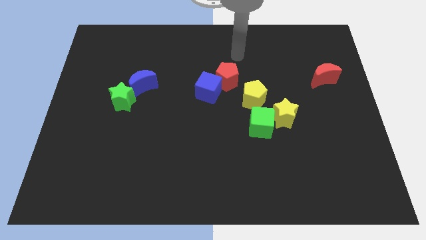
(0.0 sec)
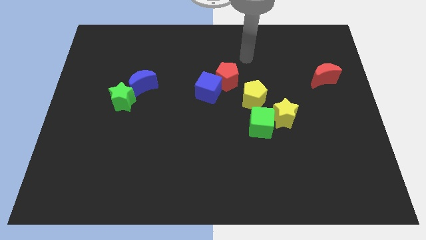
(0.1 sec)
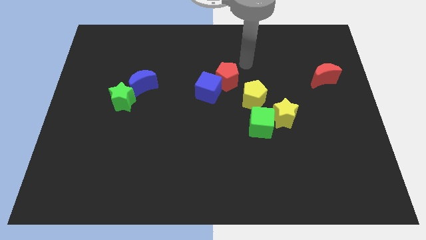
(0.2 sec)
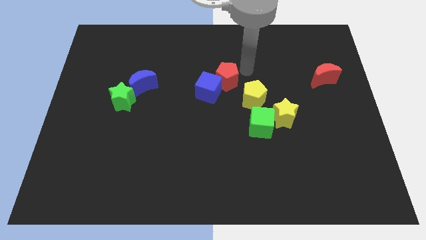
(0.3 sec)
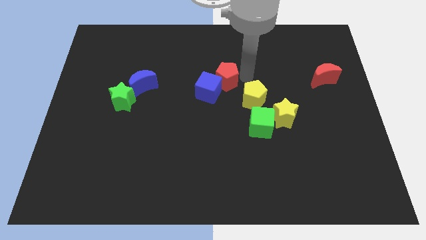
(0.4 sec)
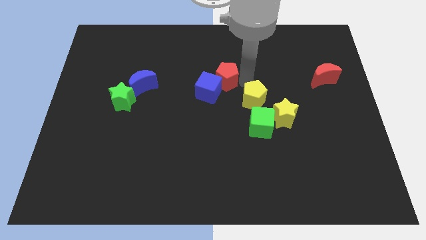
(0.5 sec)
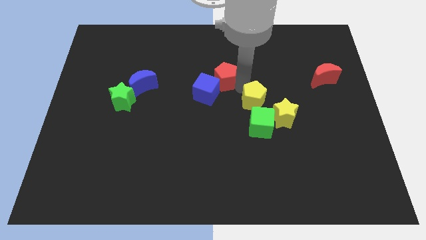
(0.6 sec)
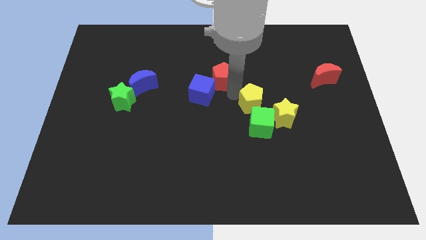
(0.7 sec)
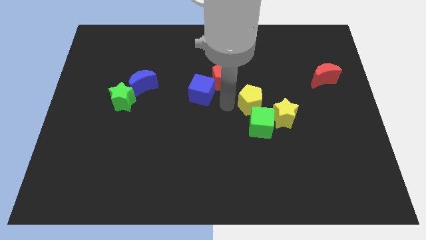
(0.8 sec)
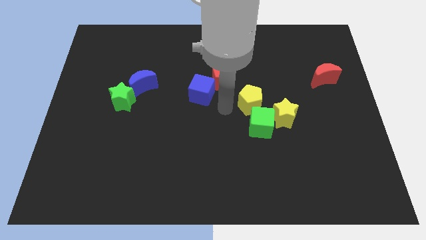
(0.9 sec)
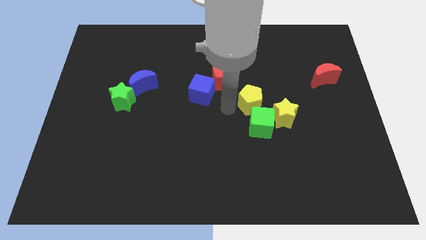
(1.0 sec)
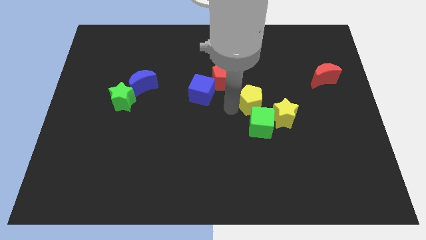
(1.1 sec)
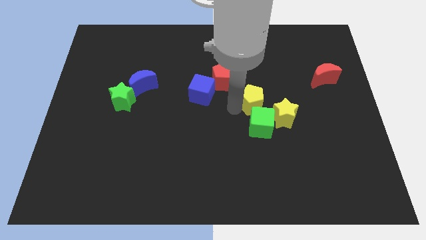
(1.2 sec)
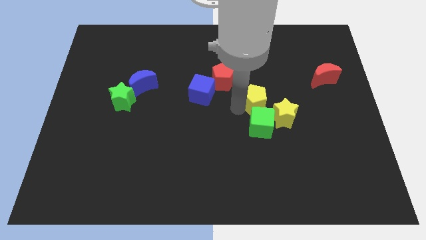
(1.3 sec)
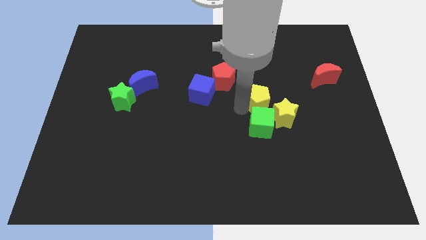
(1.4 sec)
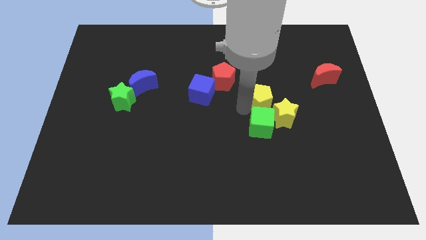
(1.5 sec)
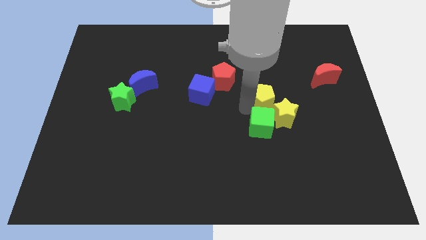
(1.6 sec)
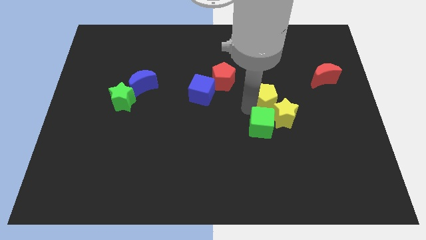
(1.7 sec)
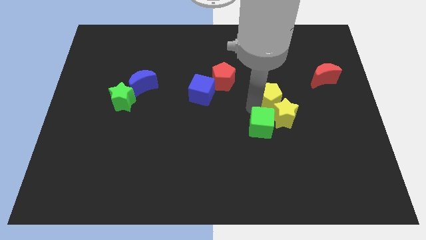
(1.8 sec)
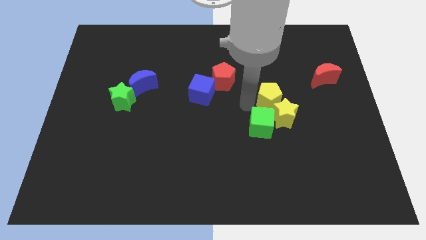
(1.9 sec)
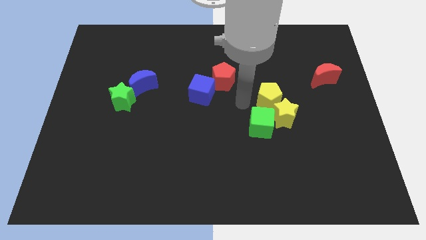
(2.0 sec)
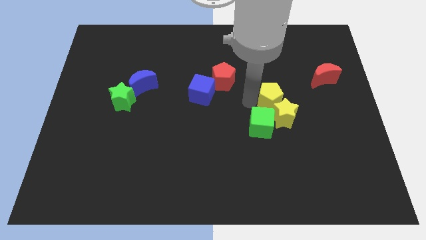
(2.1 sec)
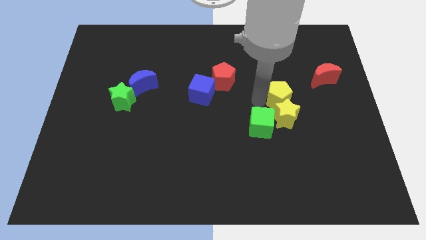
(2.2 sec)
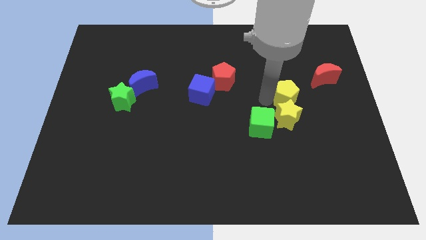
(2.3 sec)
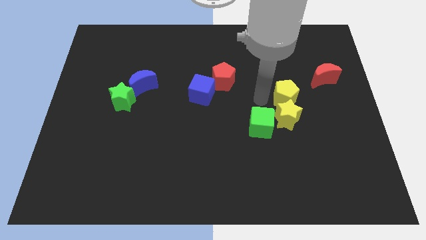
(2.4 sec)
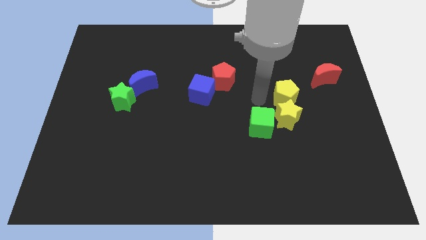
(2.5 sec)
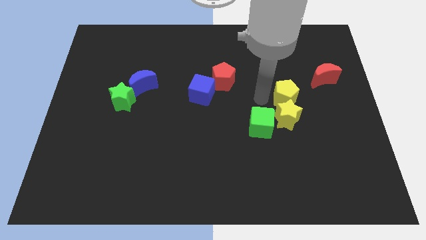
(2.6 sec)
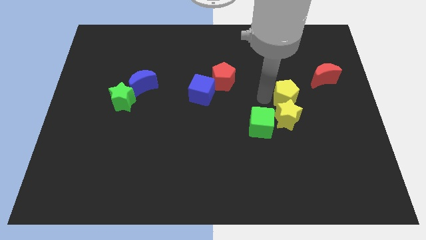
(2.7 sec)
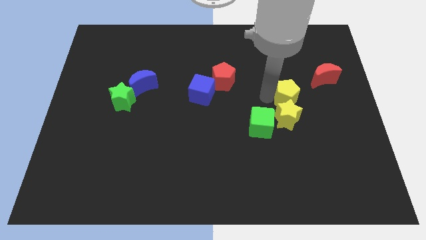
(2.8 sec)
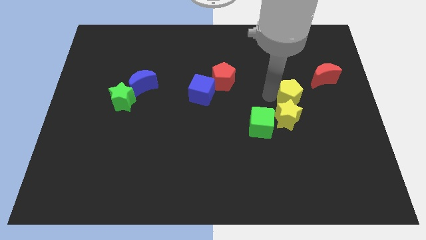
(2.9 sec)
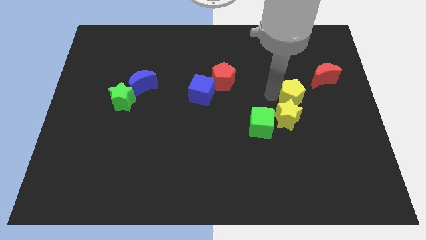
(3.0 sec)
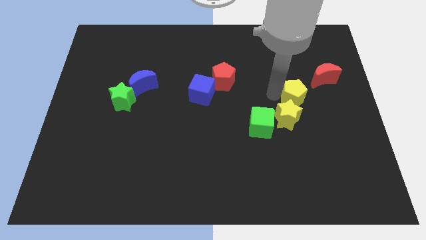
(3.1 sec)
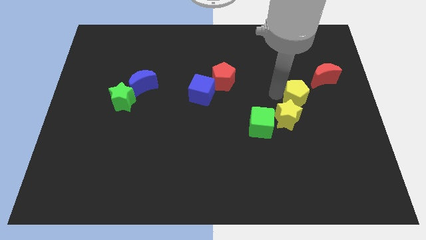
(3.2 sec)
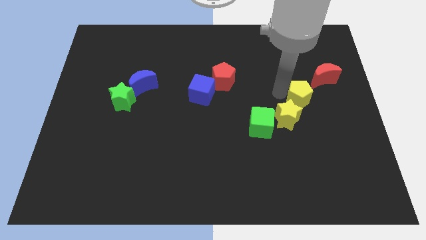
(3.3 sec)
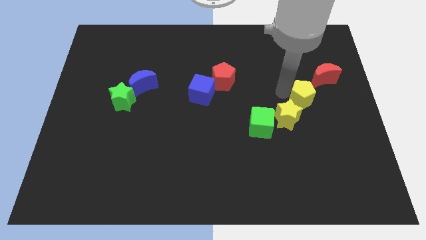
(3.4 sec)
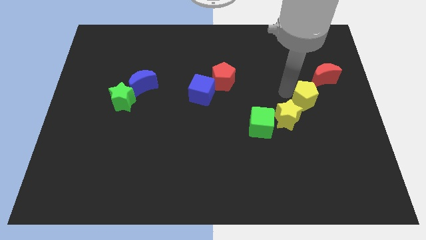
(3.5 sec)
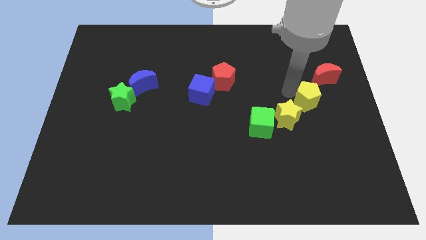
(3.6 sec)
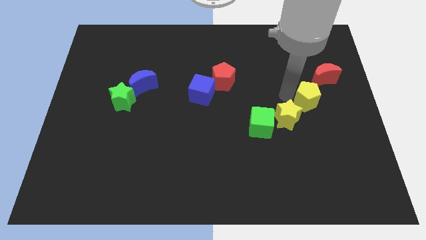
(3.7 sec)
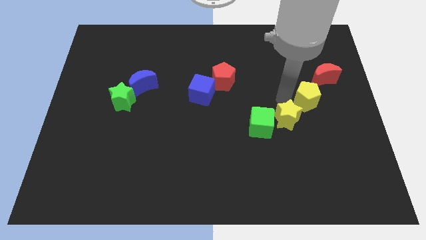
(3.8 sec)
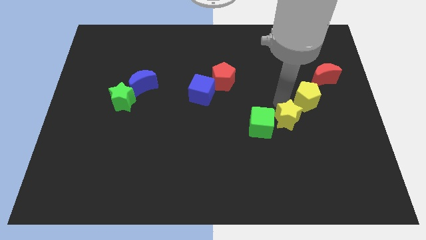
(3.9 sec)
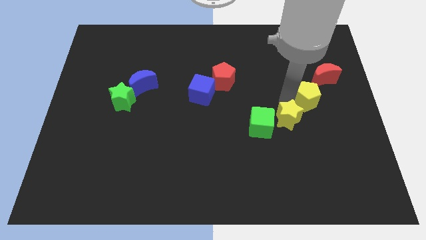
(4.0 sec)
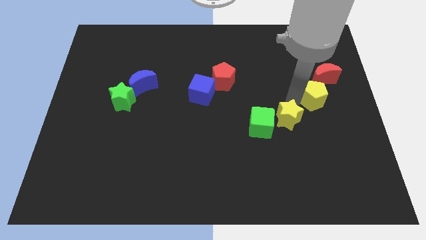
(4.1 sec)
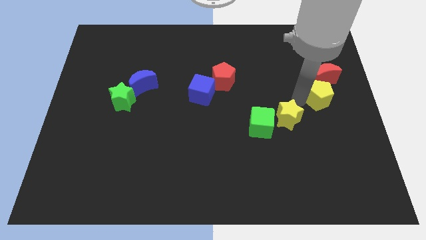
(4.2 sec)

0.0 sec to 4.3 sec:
move the yellow pentagon to the right side of the board

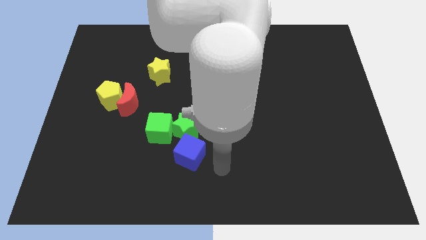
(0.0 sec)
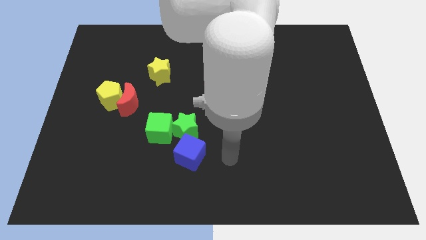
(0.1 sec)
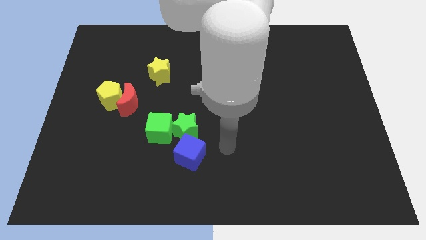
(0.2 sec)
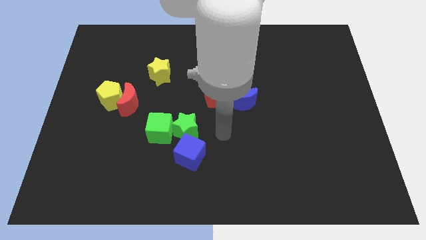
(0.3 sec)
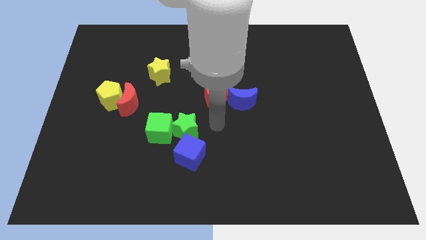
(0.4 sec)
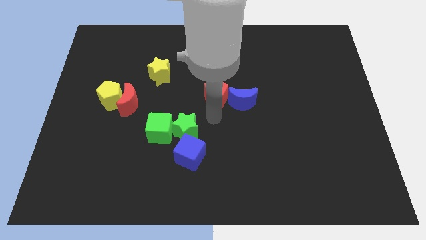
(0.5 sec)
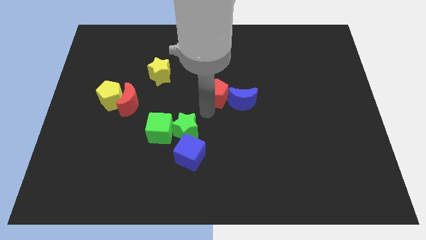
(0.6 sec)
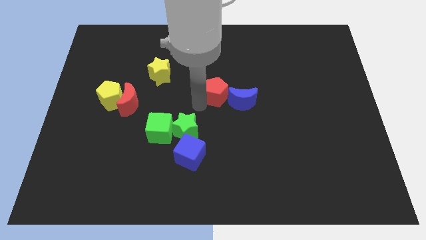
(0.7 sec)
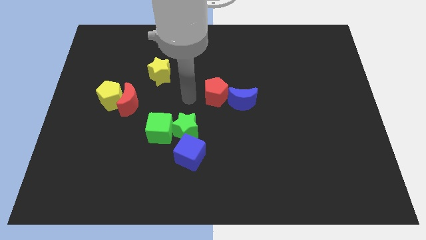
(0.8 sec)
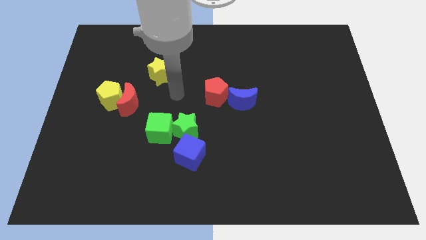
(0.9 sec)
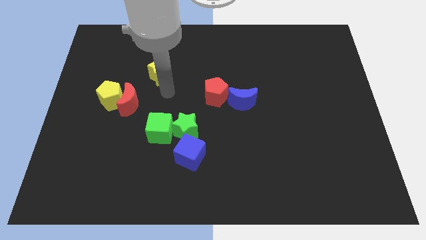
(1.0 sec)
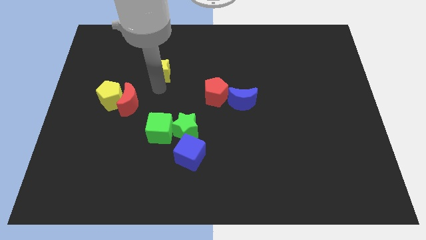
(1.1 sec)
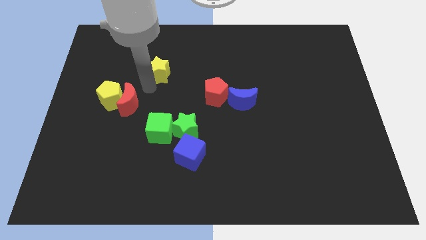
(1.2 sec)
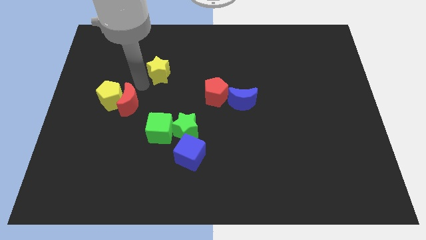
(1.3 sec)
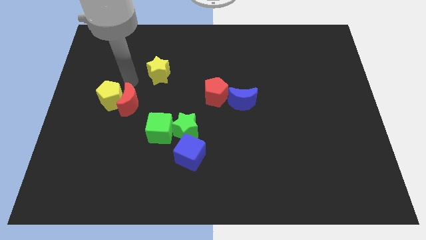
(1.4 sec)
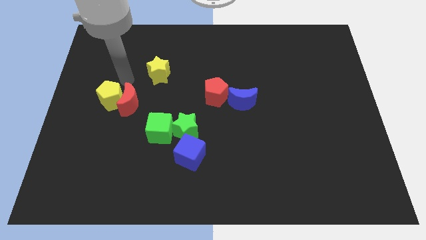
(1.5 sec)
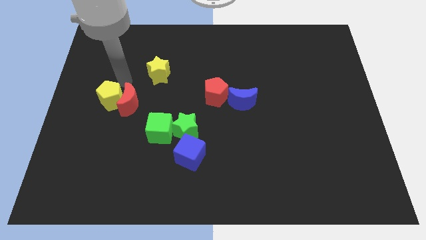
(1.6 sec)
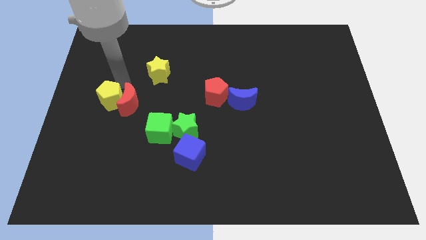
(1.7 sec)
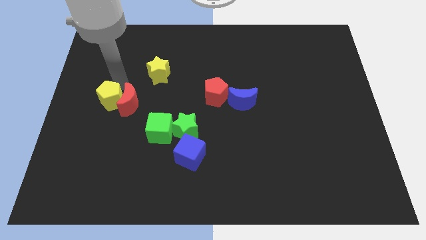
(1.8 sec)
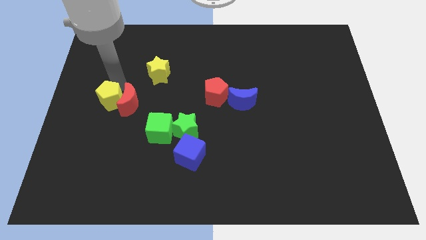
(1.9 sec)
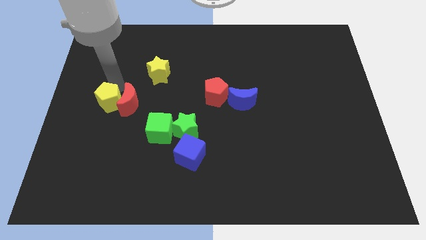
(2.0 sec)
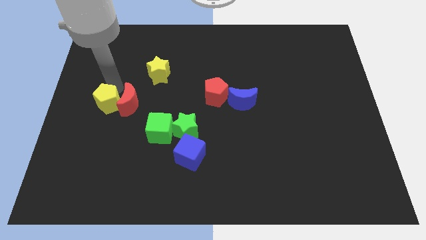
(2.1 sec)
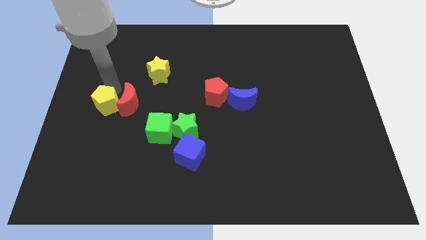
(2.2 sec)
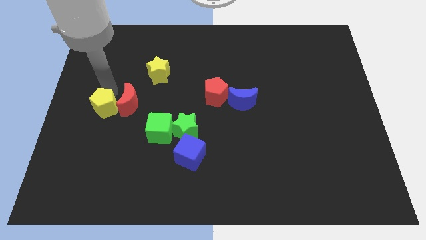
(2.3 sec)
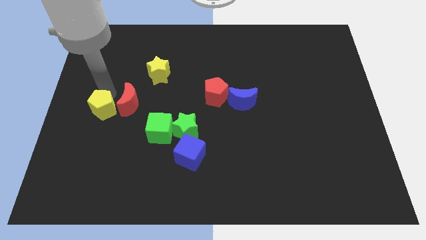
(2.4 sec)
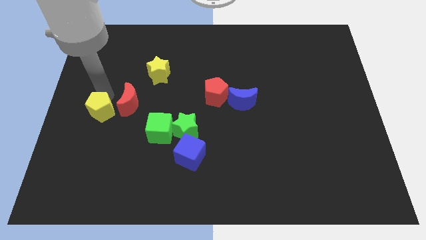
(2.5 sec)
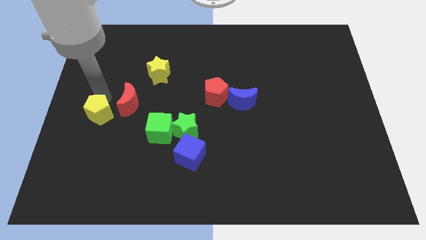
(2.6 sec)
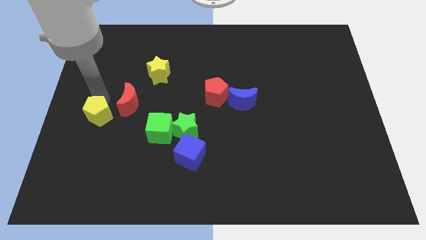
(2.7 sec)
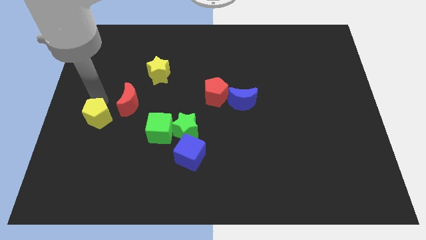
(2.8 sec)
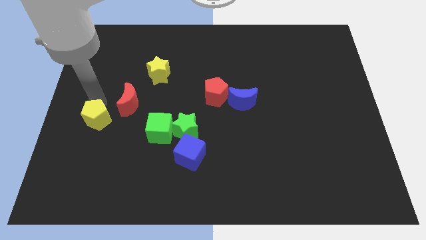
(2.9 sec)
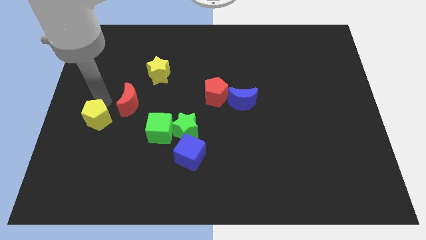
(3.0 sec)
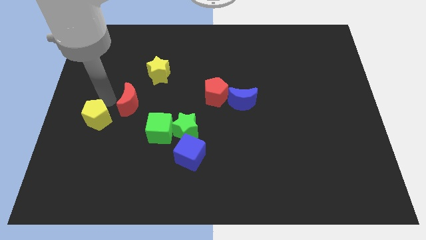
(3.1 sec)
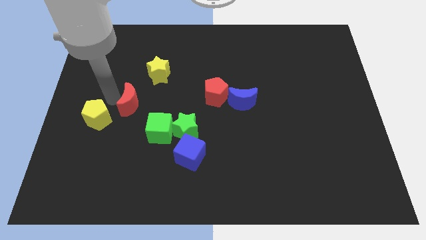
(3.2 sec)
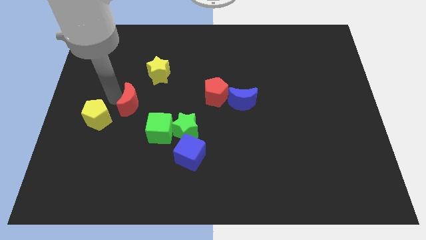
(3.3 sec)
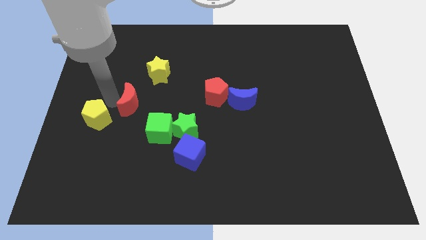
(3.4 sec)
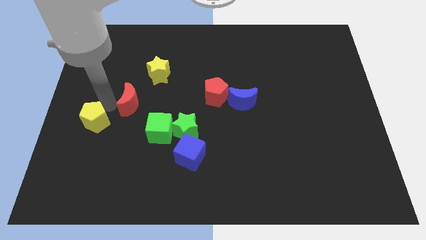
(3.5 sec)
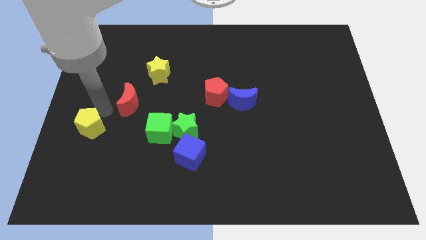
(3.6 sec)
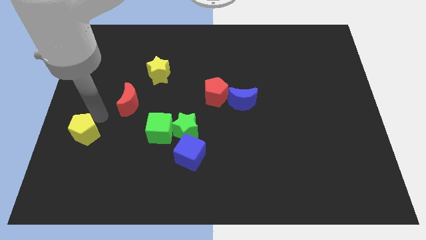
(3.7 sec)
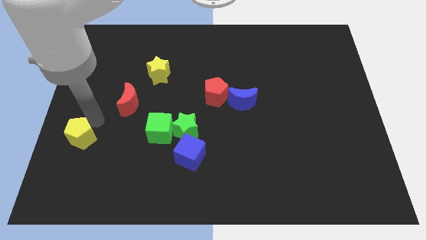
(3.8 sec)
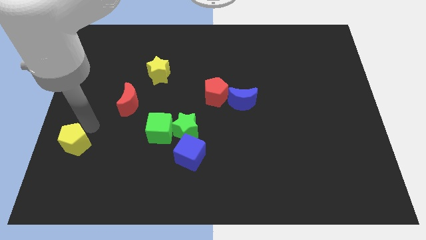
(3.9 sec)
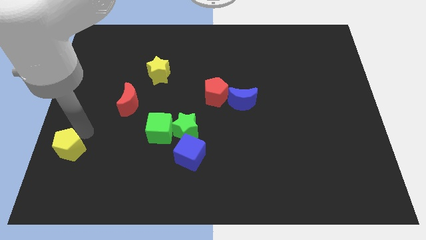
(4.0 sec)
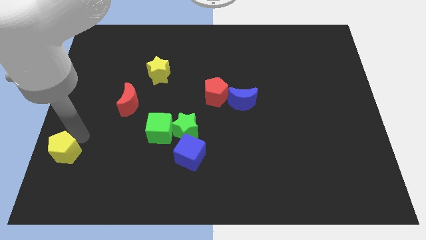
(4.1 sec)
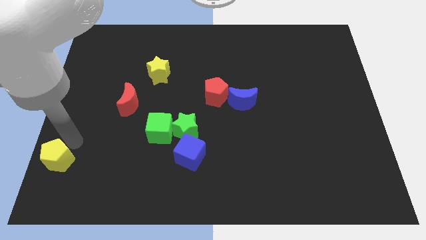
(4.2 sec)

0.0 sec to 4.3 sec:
put the yellow pentagon to the bottom left
